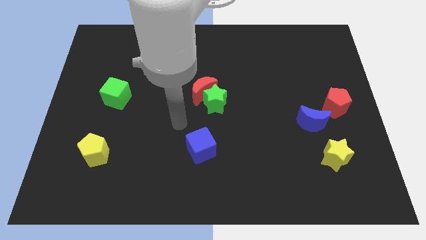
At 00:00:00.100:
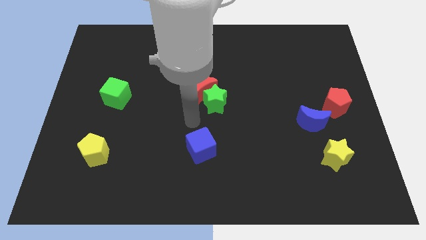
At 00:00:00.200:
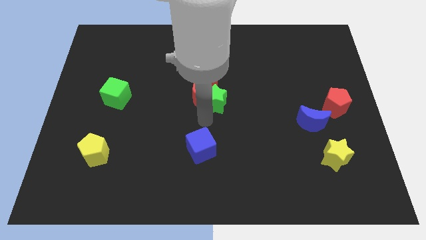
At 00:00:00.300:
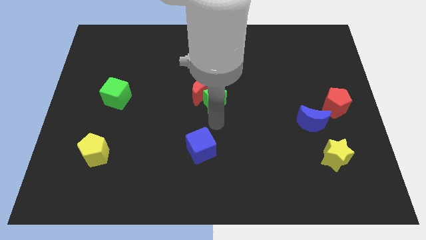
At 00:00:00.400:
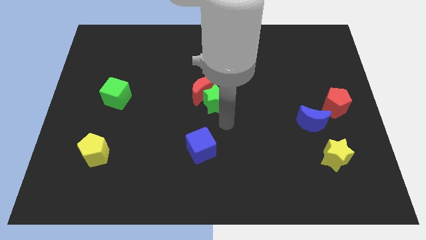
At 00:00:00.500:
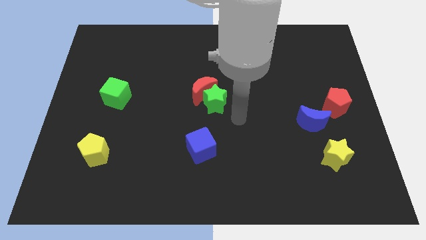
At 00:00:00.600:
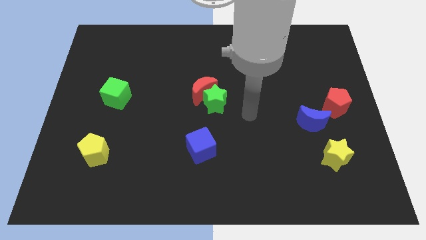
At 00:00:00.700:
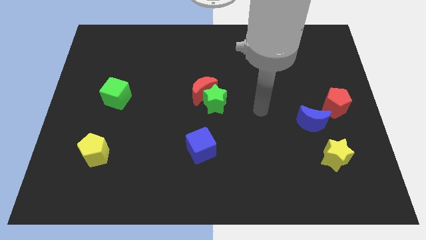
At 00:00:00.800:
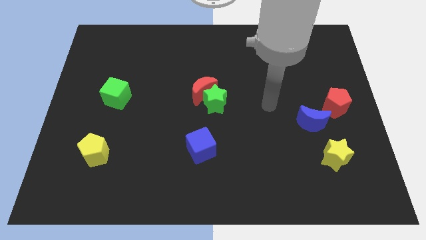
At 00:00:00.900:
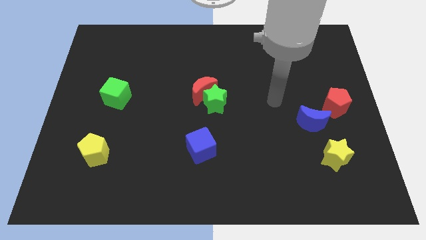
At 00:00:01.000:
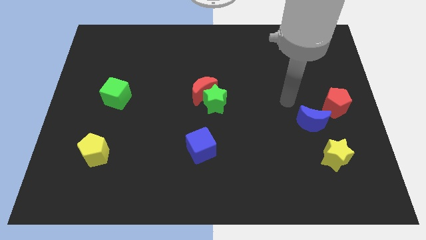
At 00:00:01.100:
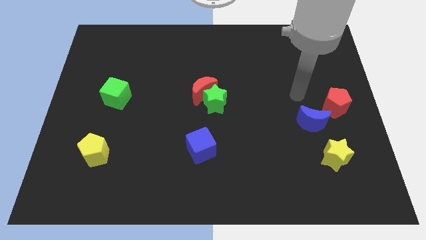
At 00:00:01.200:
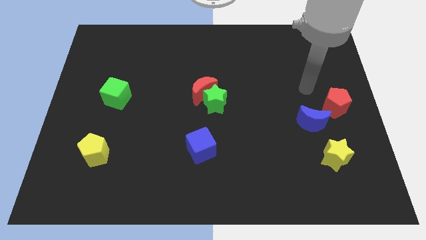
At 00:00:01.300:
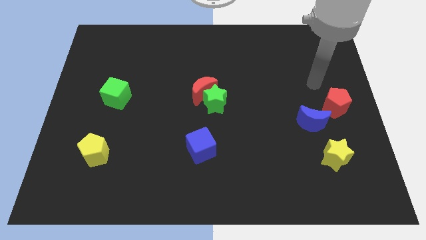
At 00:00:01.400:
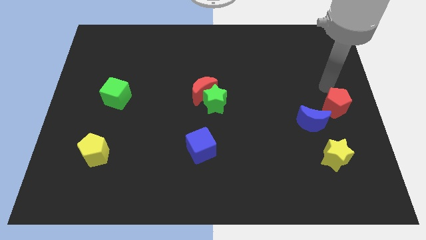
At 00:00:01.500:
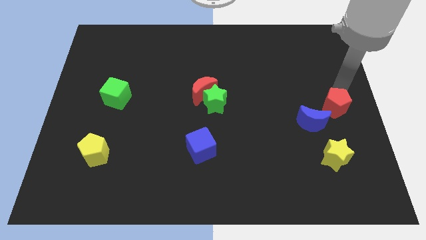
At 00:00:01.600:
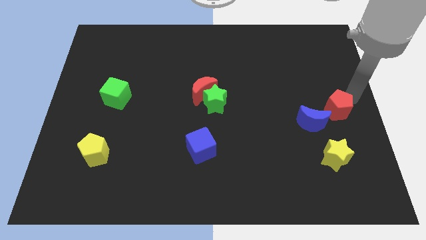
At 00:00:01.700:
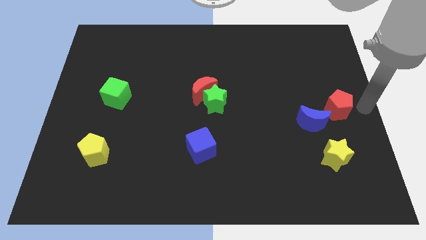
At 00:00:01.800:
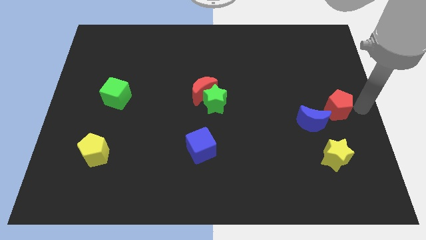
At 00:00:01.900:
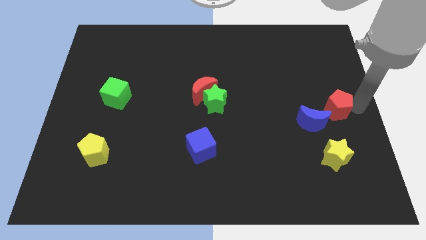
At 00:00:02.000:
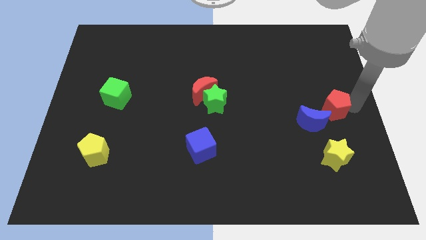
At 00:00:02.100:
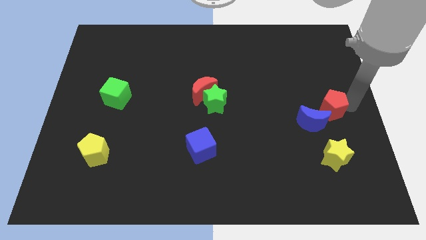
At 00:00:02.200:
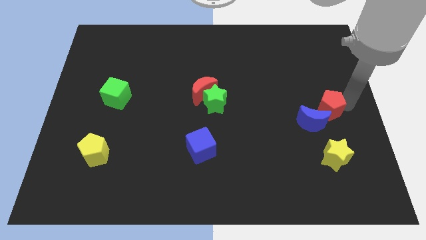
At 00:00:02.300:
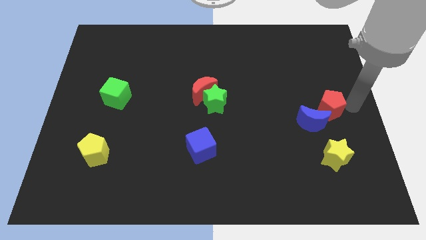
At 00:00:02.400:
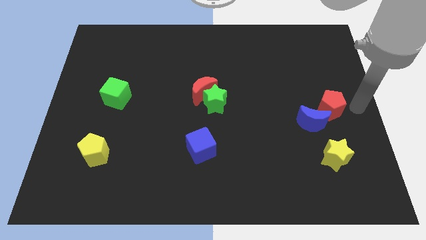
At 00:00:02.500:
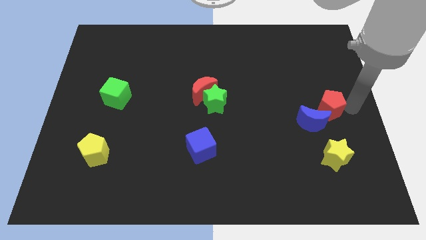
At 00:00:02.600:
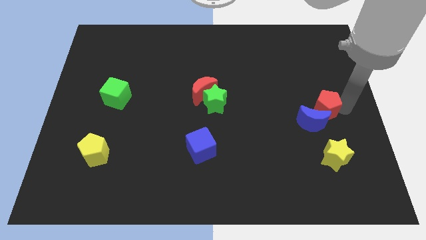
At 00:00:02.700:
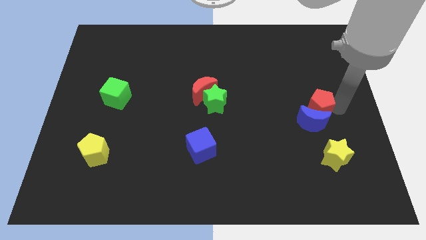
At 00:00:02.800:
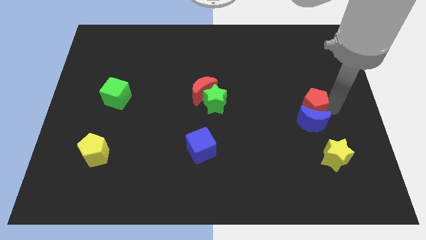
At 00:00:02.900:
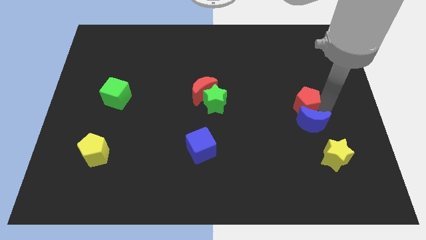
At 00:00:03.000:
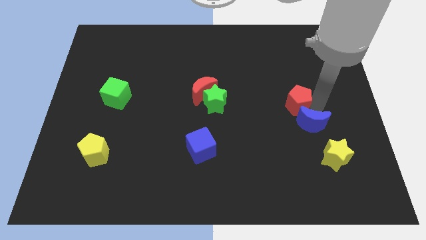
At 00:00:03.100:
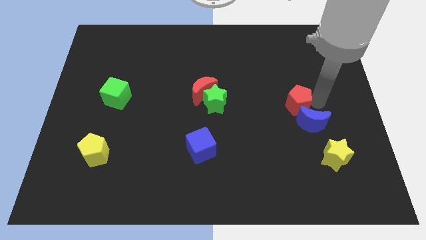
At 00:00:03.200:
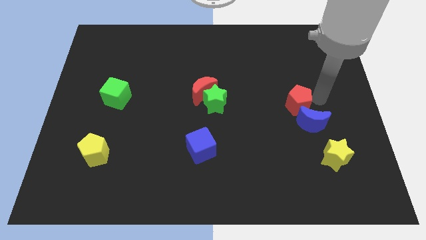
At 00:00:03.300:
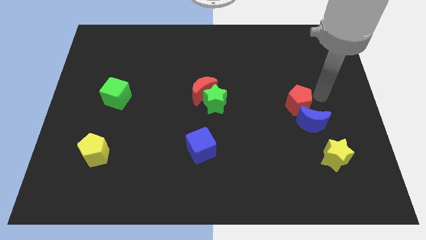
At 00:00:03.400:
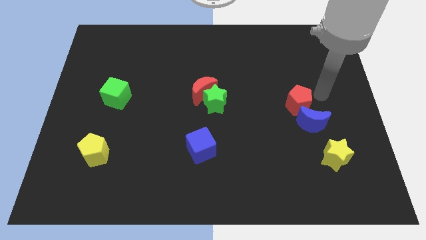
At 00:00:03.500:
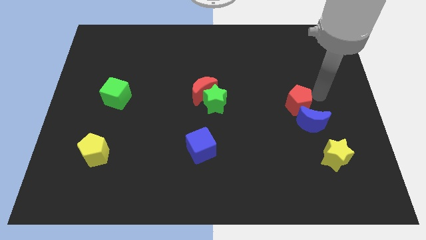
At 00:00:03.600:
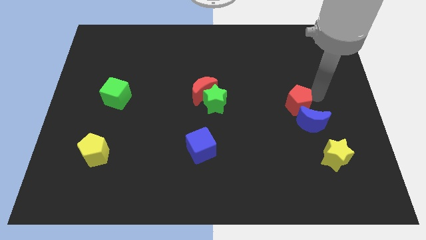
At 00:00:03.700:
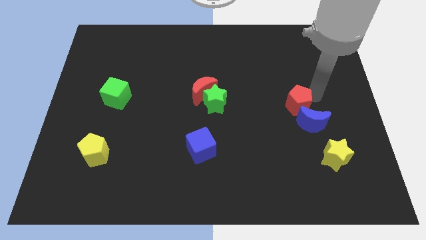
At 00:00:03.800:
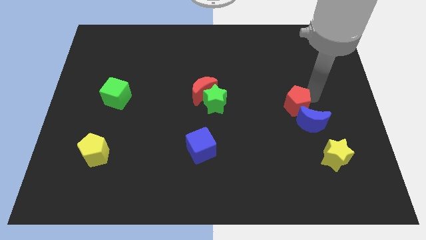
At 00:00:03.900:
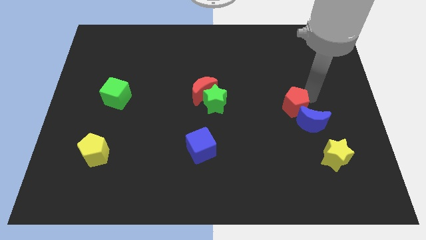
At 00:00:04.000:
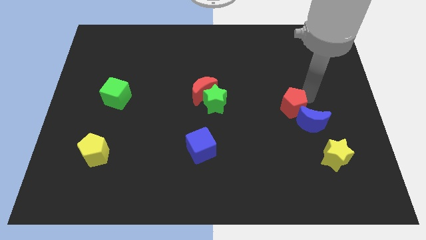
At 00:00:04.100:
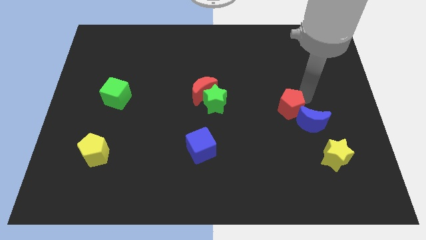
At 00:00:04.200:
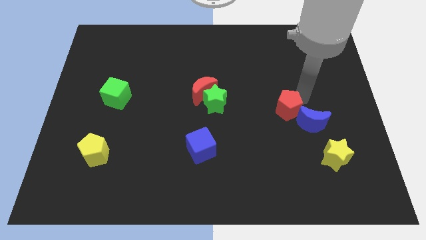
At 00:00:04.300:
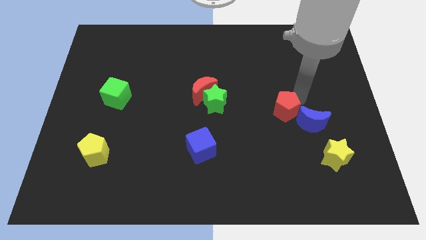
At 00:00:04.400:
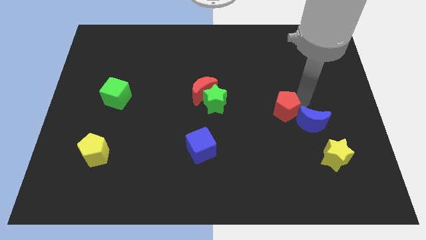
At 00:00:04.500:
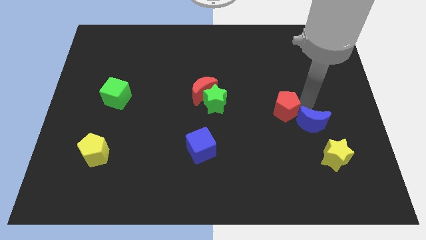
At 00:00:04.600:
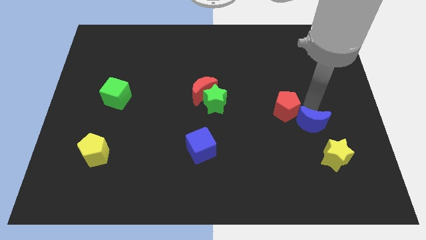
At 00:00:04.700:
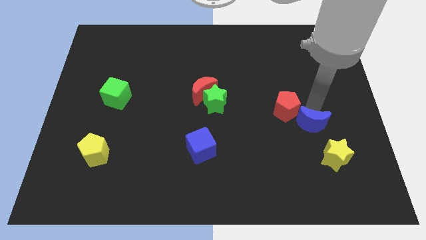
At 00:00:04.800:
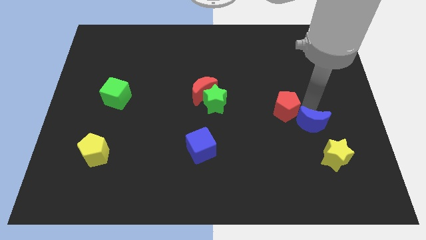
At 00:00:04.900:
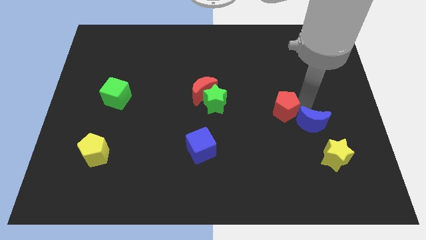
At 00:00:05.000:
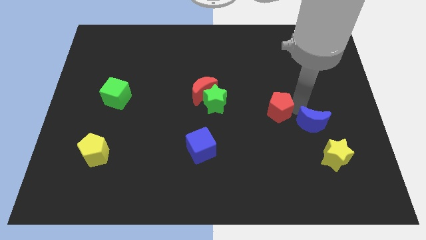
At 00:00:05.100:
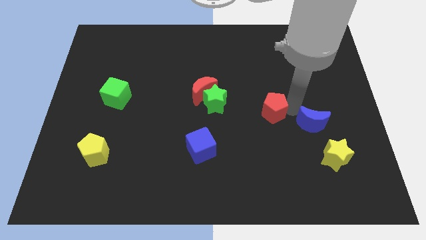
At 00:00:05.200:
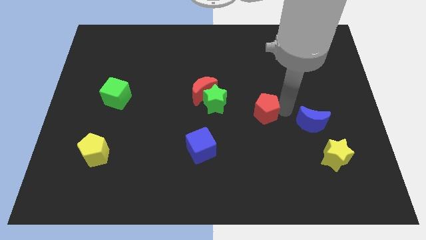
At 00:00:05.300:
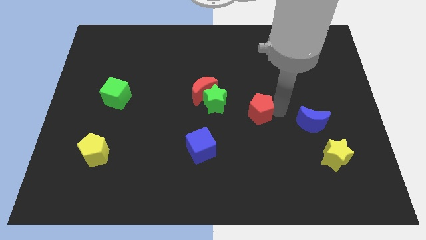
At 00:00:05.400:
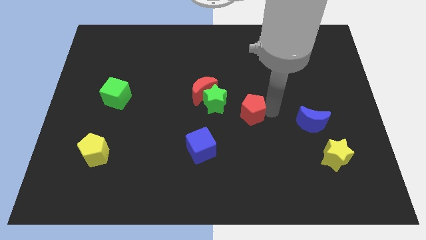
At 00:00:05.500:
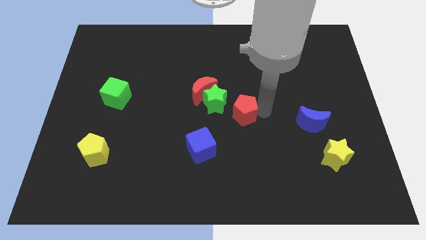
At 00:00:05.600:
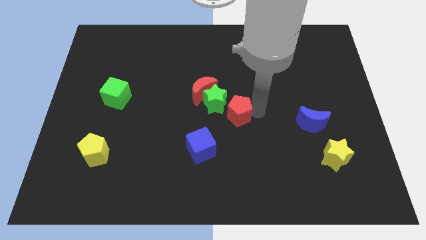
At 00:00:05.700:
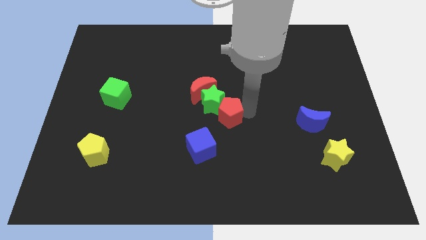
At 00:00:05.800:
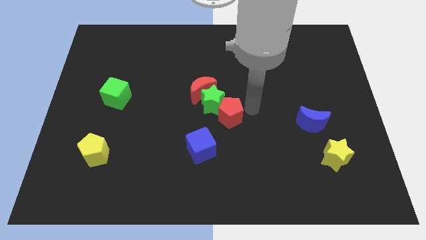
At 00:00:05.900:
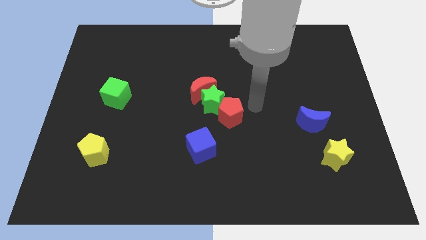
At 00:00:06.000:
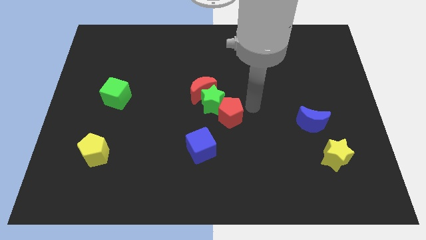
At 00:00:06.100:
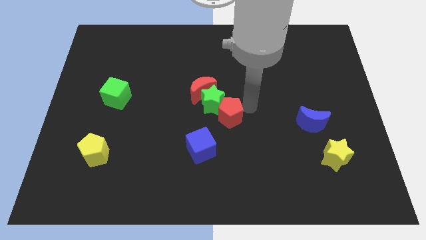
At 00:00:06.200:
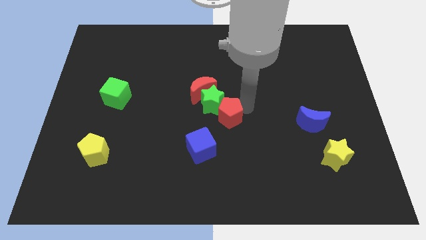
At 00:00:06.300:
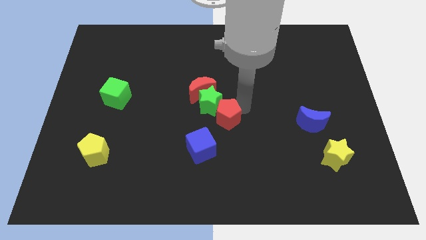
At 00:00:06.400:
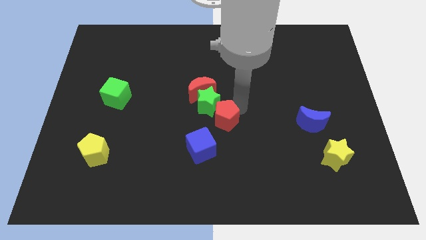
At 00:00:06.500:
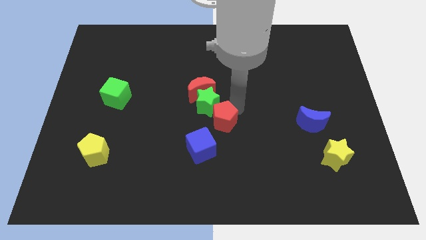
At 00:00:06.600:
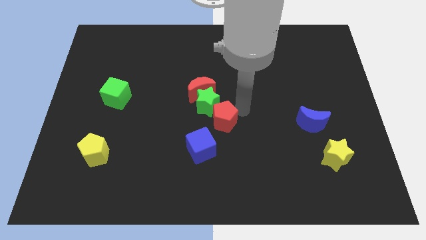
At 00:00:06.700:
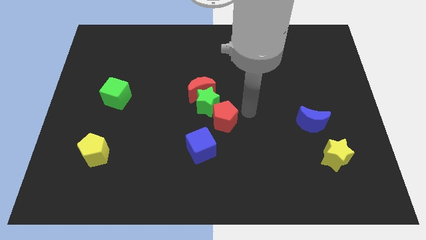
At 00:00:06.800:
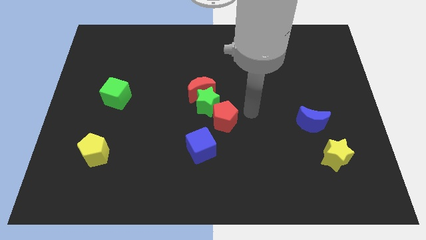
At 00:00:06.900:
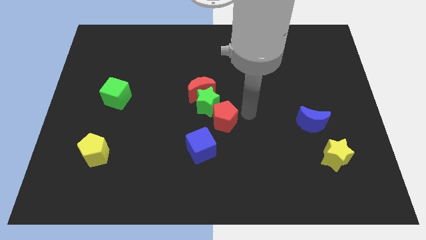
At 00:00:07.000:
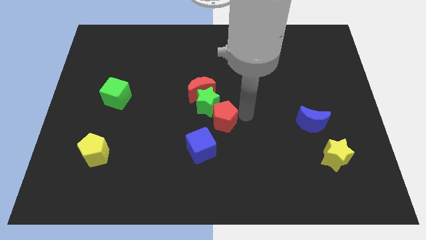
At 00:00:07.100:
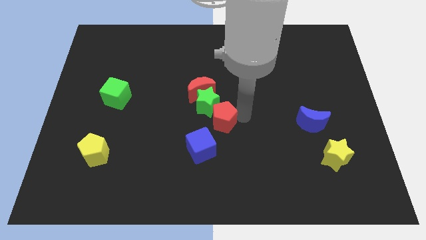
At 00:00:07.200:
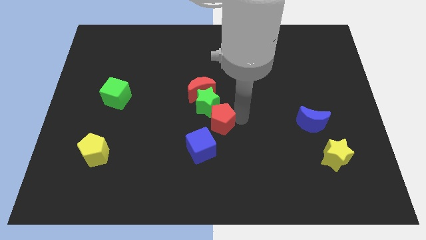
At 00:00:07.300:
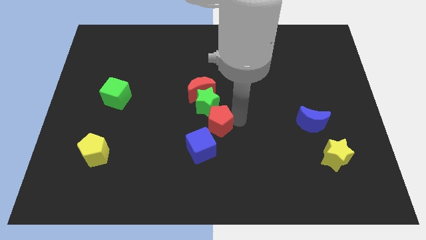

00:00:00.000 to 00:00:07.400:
push the red pentagon to the bottom side of the red moon
